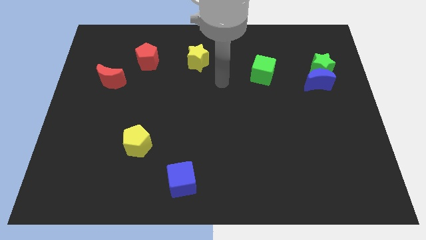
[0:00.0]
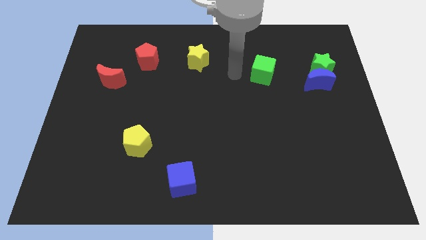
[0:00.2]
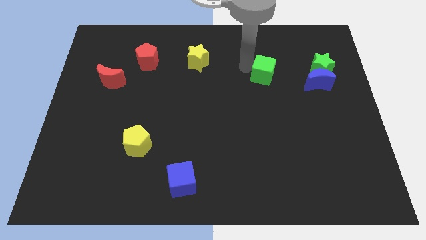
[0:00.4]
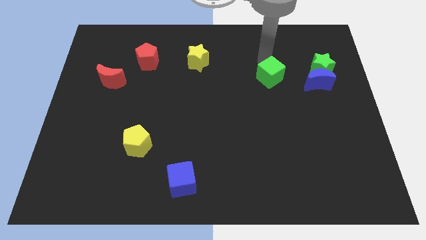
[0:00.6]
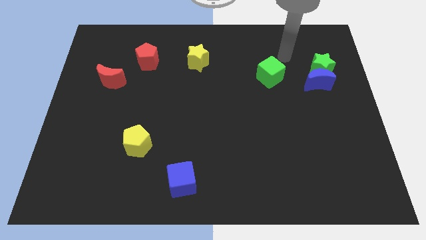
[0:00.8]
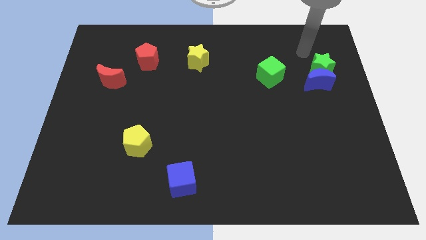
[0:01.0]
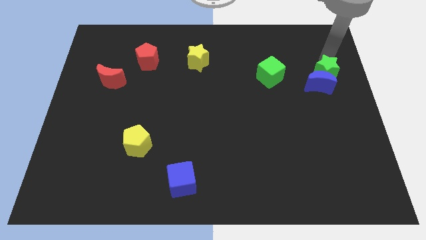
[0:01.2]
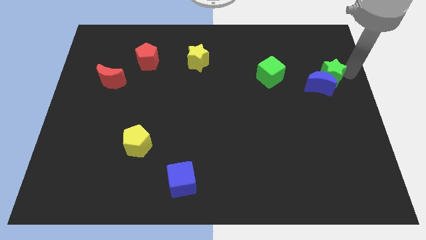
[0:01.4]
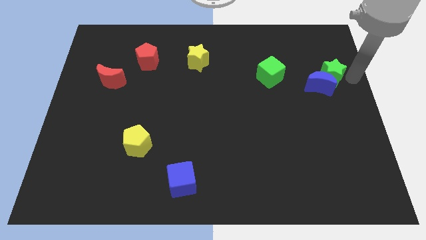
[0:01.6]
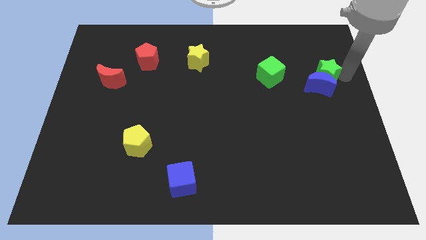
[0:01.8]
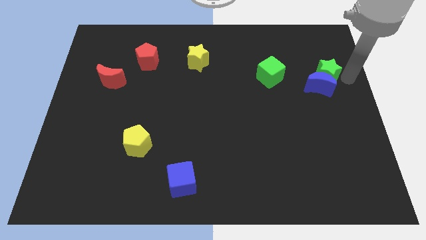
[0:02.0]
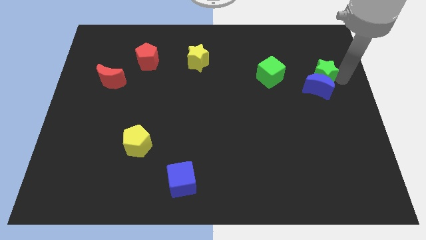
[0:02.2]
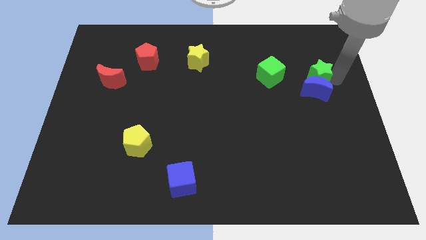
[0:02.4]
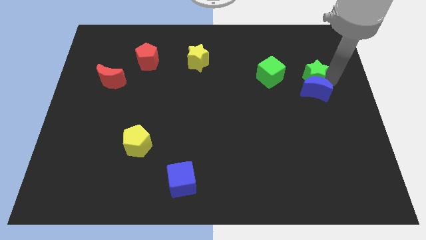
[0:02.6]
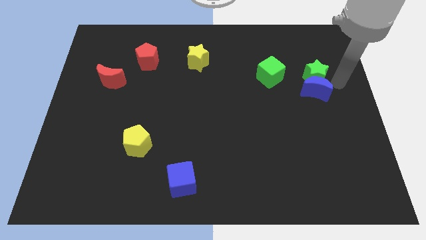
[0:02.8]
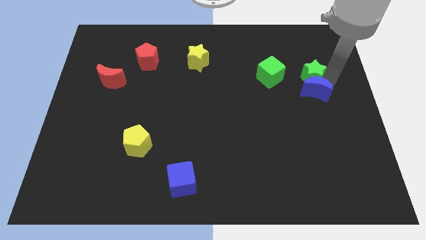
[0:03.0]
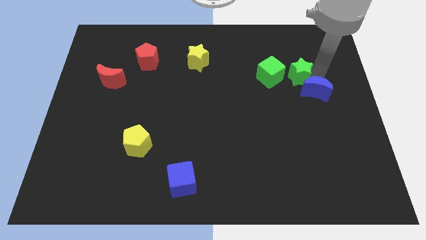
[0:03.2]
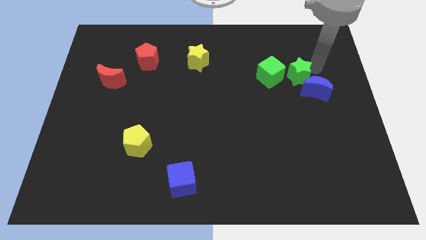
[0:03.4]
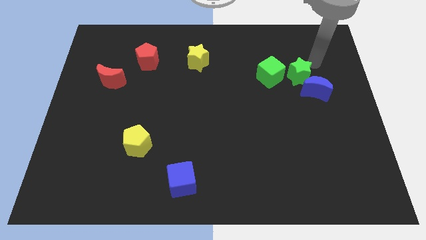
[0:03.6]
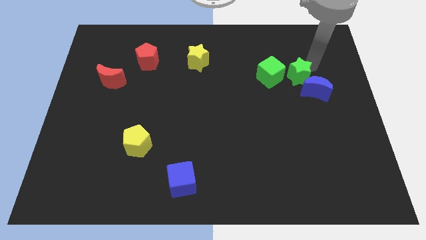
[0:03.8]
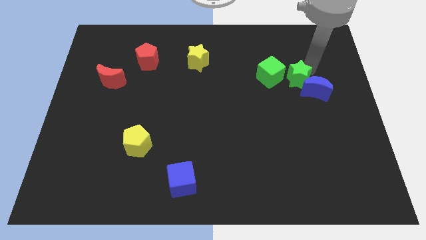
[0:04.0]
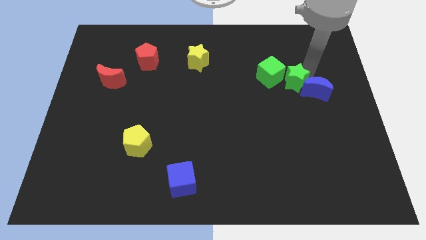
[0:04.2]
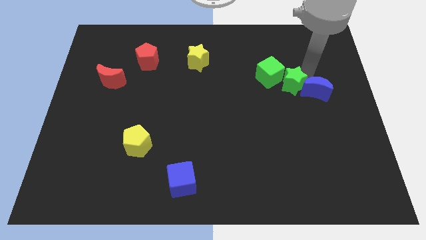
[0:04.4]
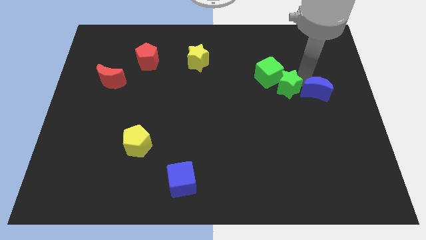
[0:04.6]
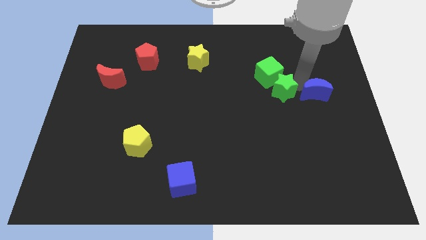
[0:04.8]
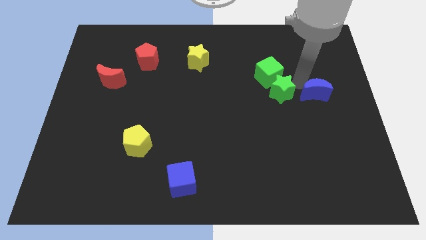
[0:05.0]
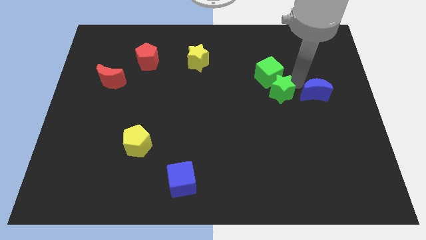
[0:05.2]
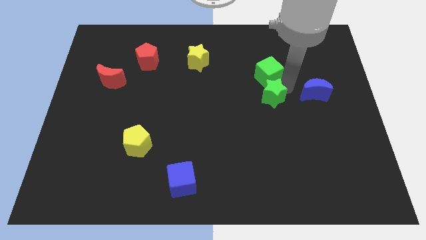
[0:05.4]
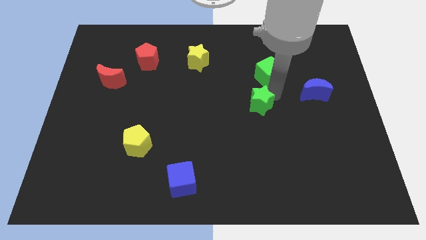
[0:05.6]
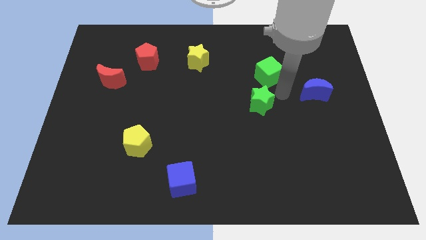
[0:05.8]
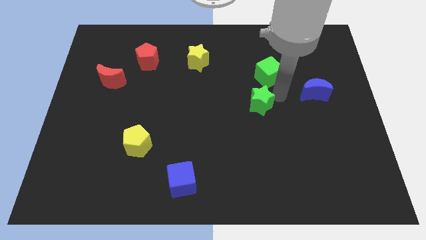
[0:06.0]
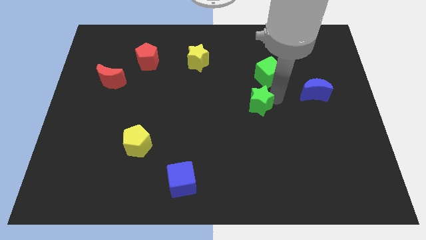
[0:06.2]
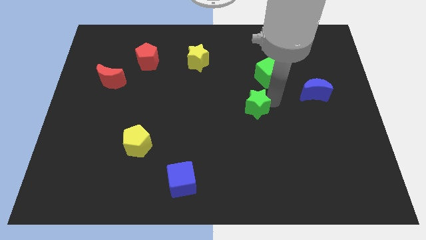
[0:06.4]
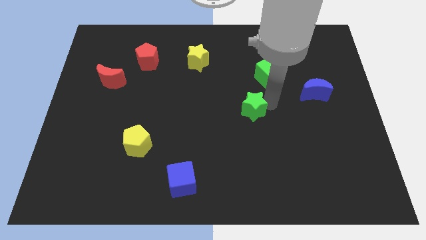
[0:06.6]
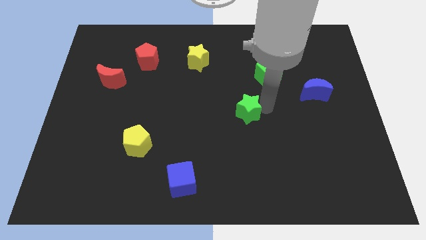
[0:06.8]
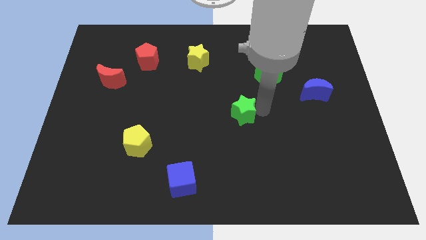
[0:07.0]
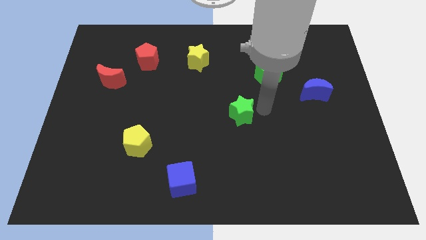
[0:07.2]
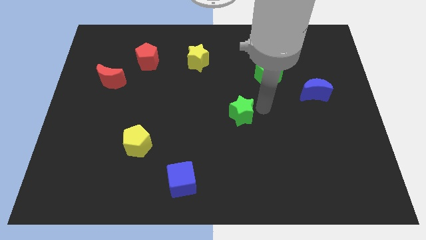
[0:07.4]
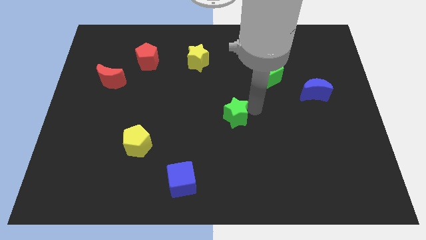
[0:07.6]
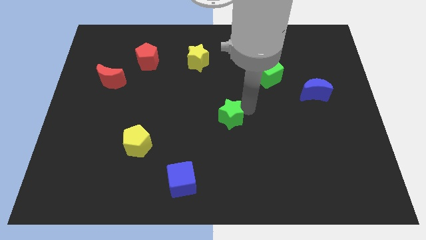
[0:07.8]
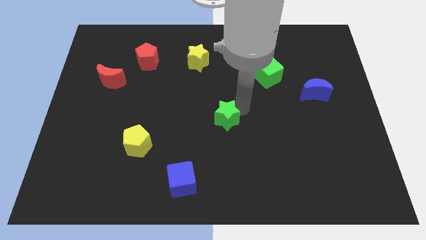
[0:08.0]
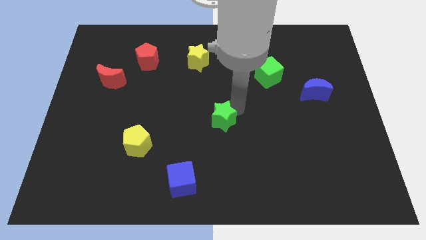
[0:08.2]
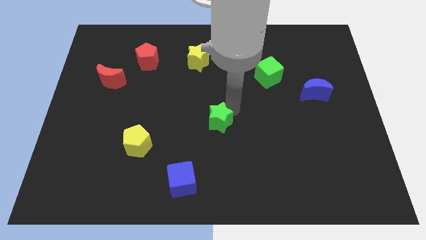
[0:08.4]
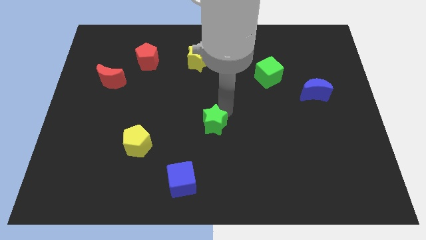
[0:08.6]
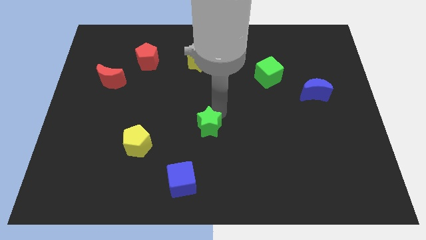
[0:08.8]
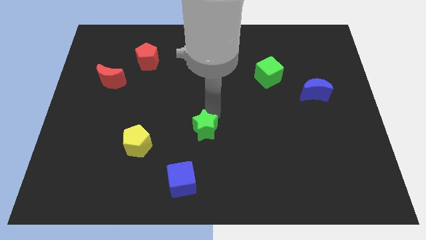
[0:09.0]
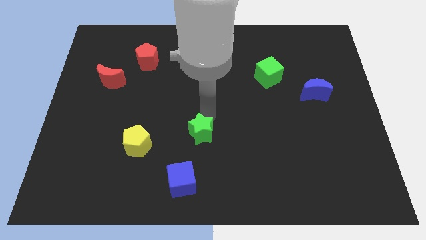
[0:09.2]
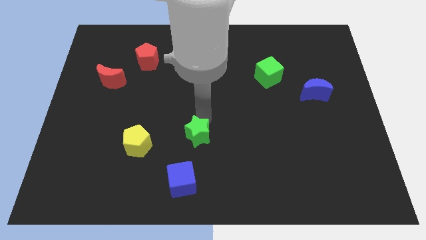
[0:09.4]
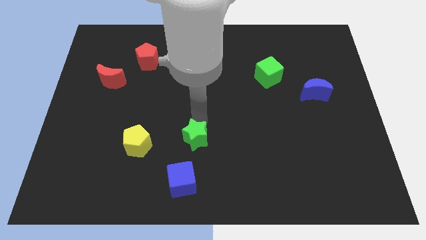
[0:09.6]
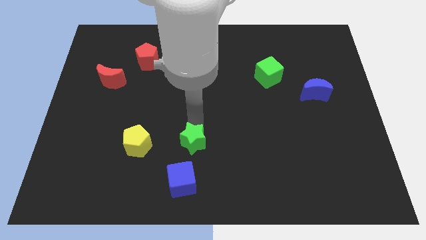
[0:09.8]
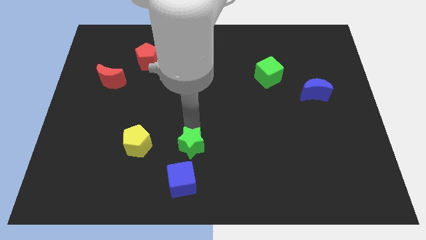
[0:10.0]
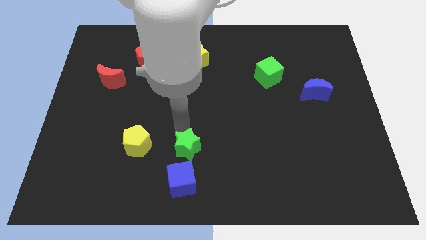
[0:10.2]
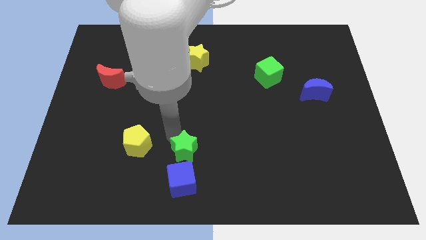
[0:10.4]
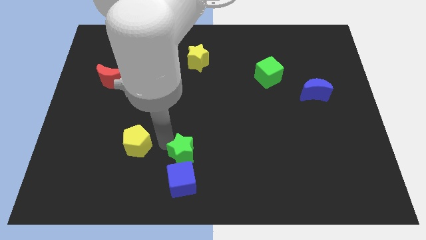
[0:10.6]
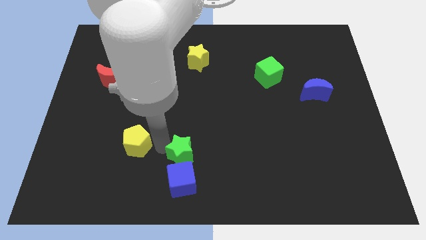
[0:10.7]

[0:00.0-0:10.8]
put the green star towards the blue cube

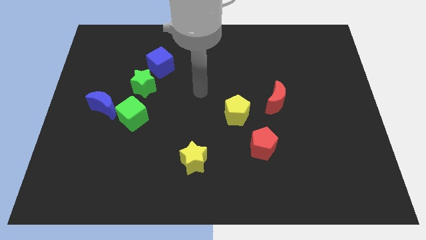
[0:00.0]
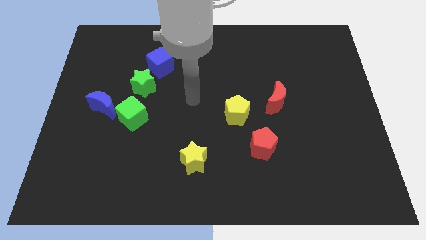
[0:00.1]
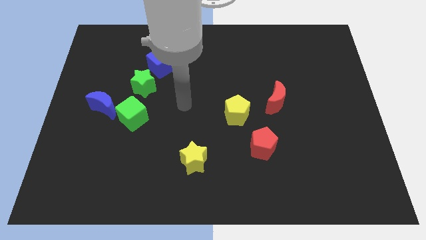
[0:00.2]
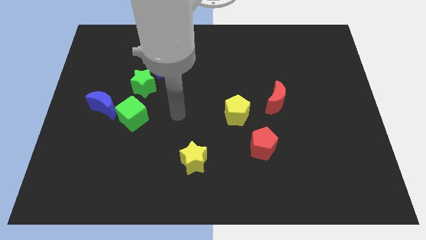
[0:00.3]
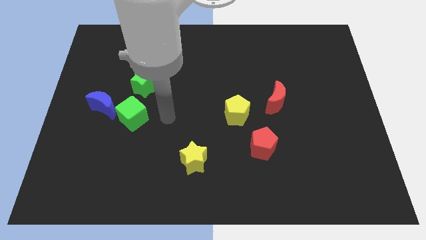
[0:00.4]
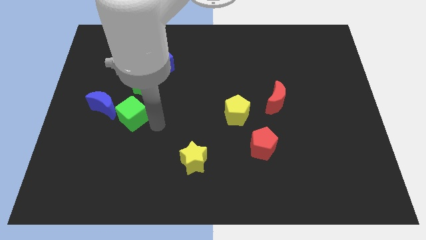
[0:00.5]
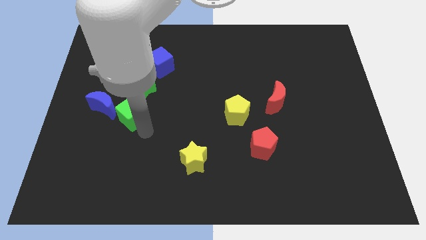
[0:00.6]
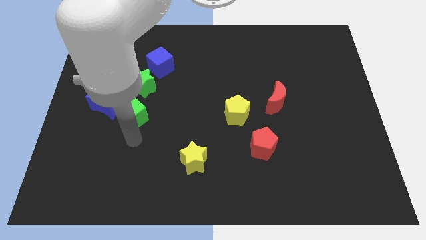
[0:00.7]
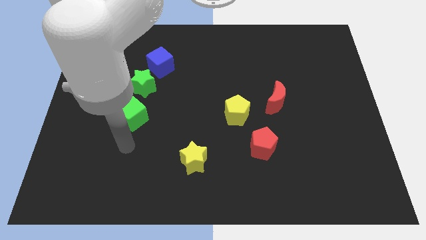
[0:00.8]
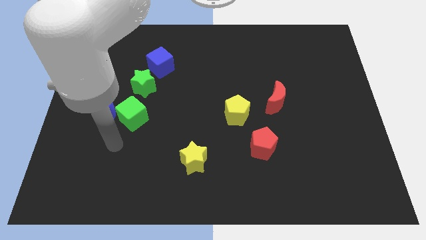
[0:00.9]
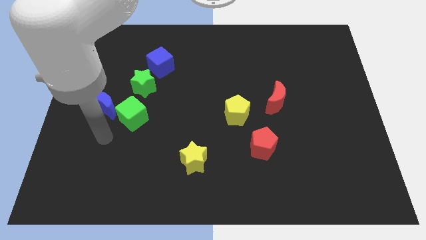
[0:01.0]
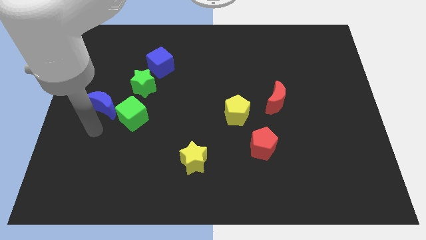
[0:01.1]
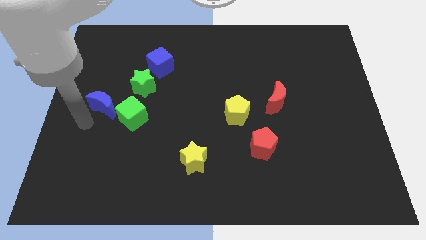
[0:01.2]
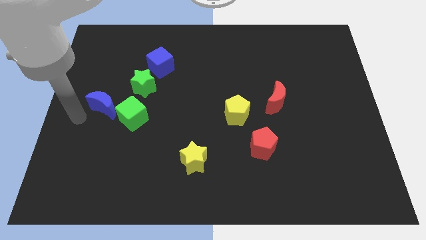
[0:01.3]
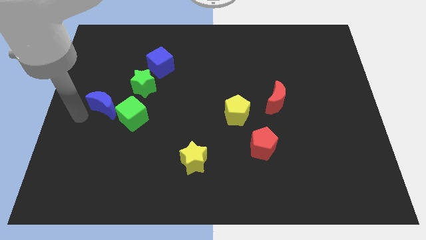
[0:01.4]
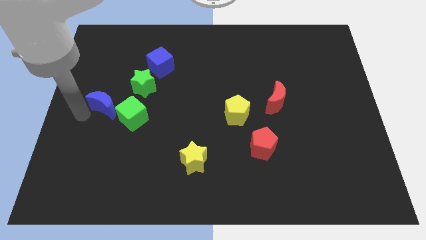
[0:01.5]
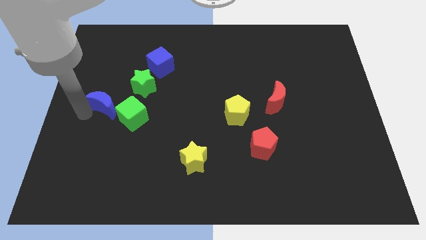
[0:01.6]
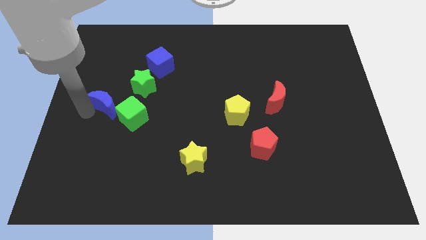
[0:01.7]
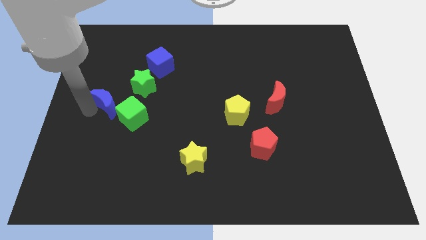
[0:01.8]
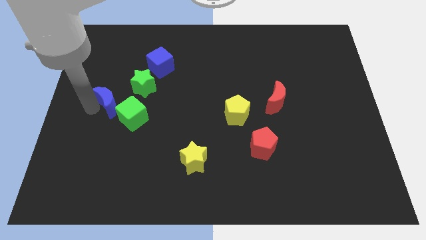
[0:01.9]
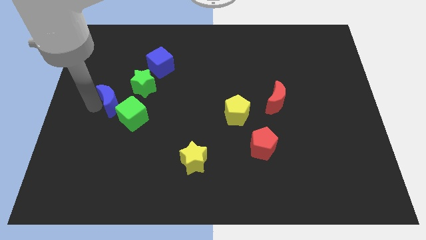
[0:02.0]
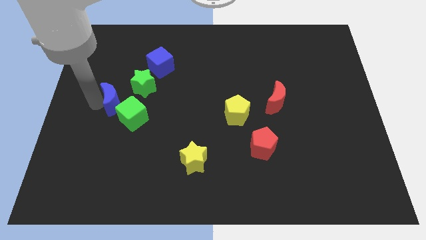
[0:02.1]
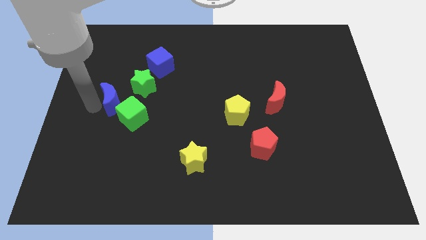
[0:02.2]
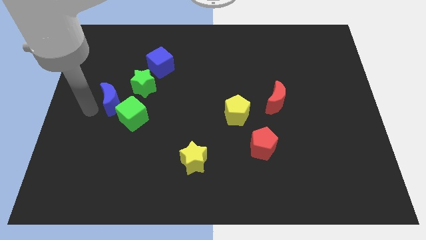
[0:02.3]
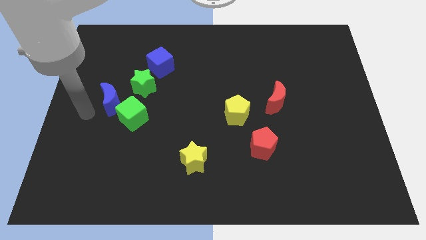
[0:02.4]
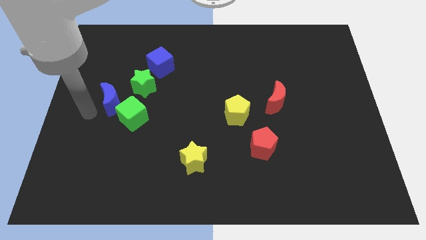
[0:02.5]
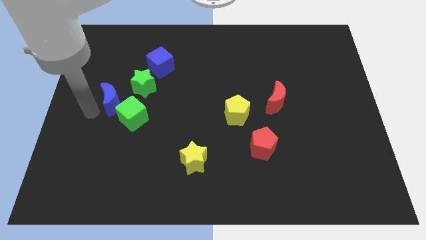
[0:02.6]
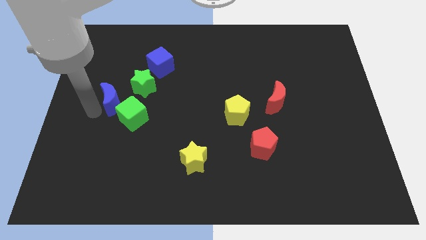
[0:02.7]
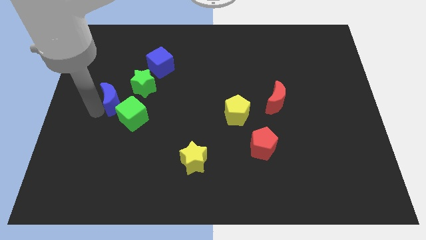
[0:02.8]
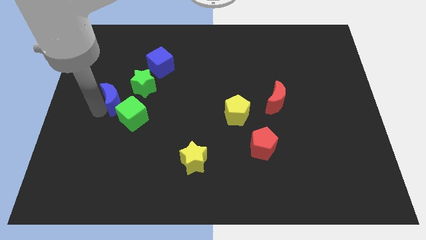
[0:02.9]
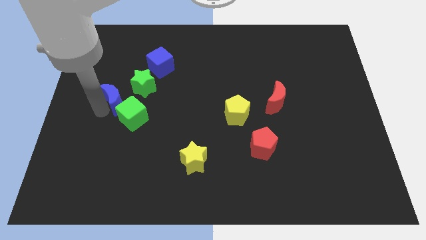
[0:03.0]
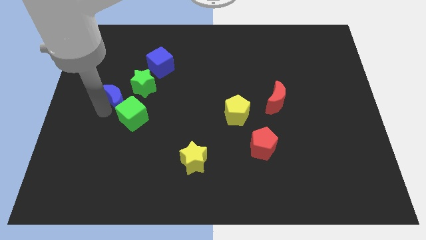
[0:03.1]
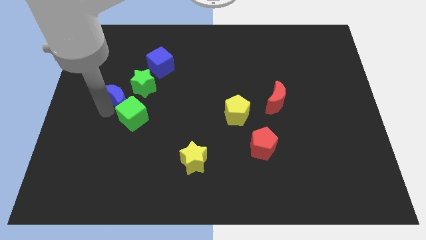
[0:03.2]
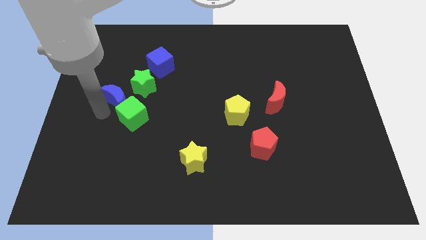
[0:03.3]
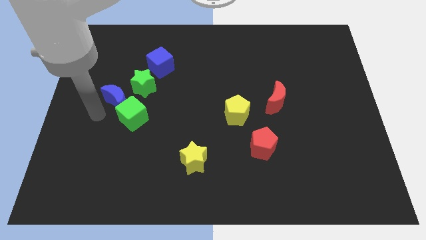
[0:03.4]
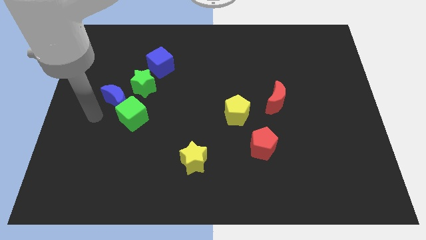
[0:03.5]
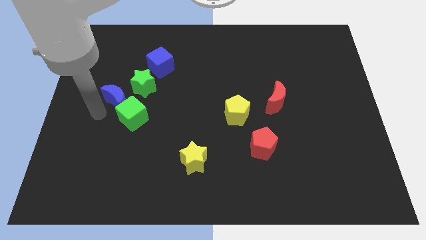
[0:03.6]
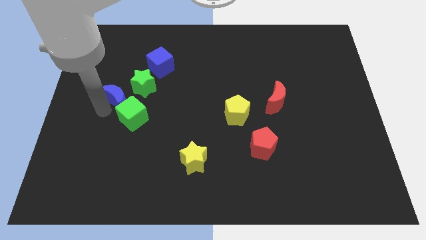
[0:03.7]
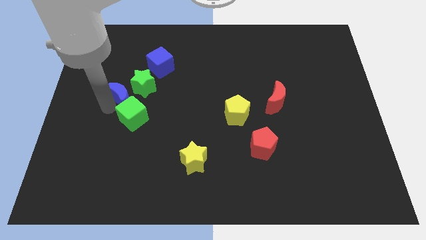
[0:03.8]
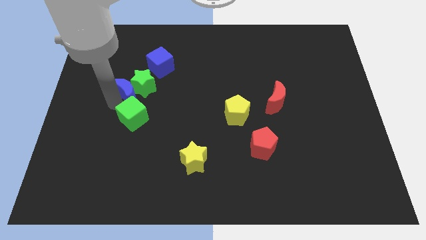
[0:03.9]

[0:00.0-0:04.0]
put the blue moon to the green star
